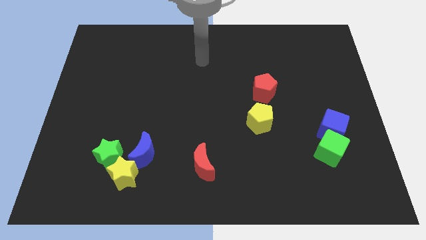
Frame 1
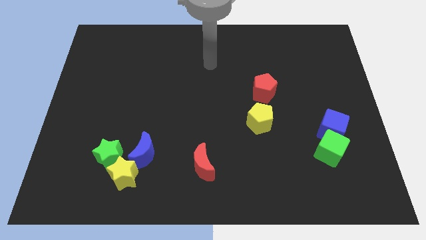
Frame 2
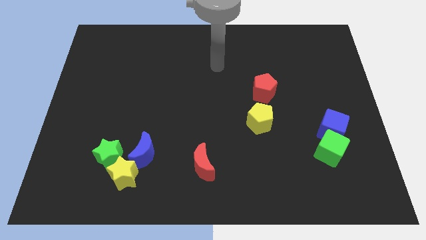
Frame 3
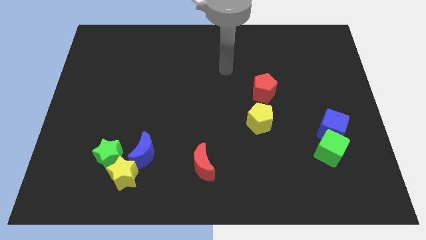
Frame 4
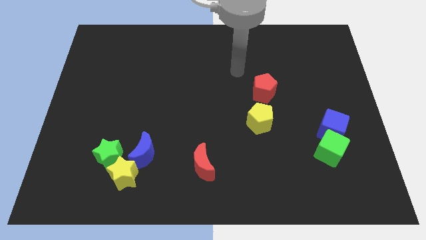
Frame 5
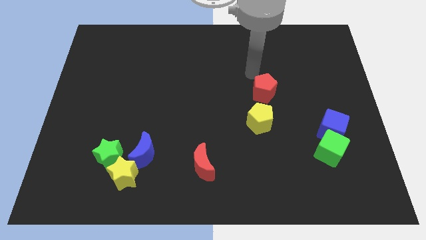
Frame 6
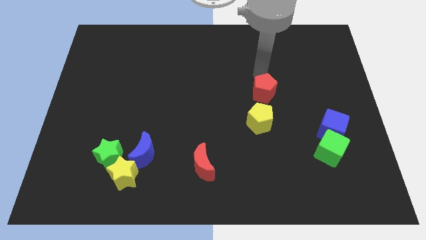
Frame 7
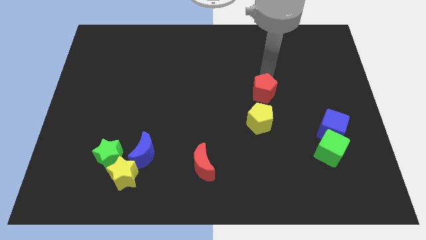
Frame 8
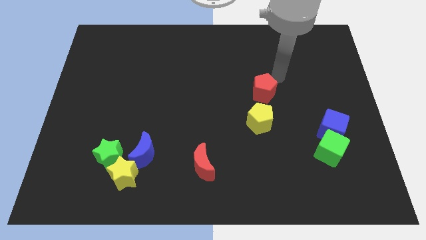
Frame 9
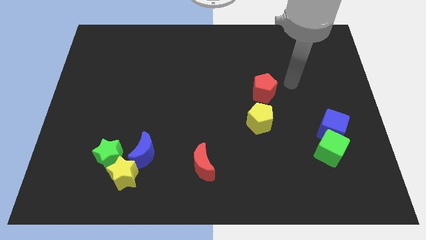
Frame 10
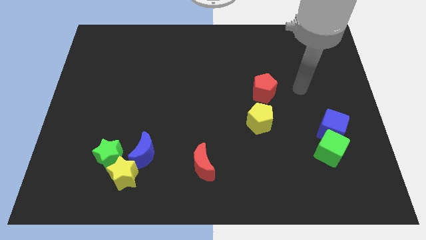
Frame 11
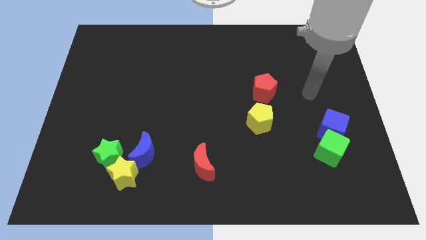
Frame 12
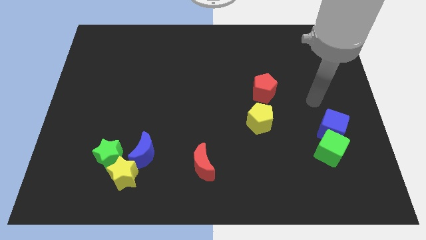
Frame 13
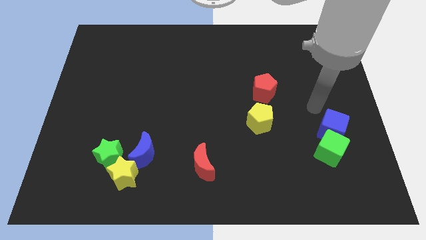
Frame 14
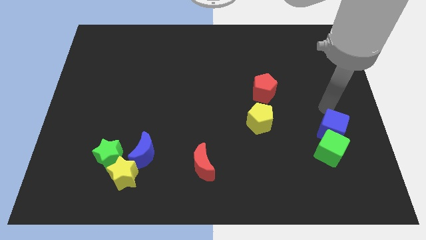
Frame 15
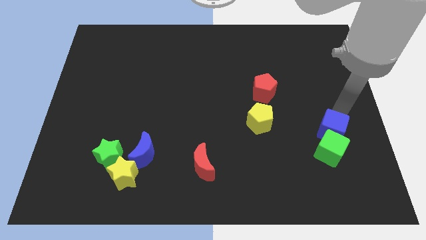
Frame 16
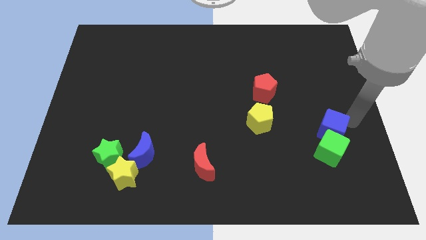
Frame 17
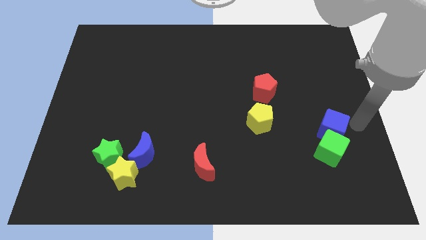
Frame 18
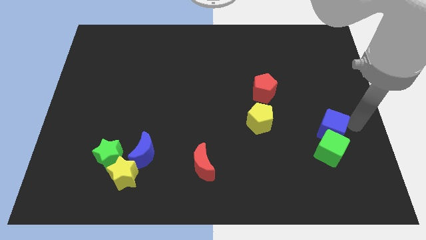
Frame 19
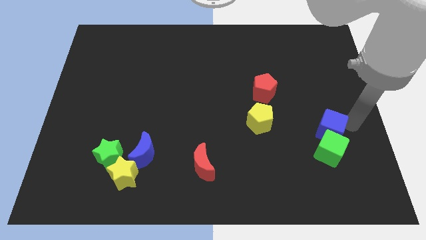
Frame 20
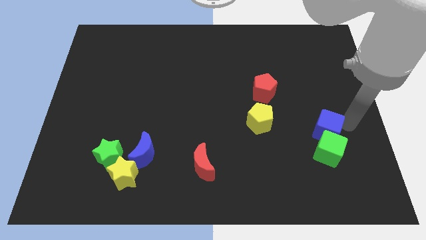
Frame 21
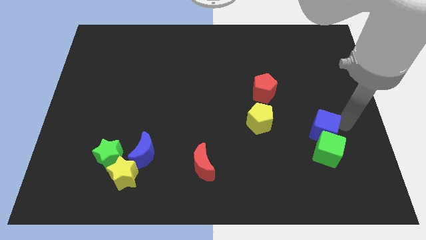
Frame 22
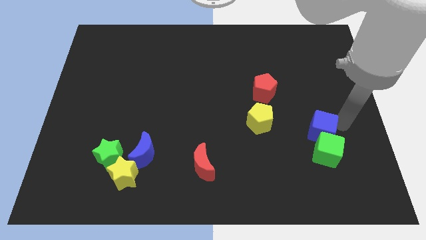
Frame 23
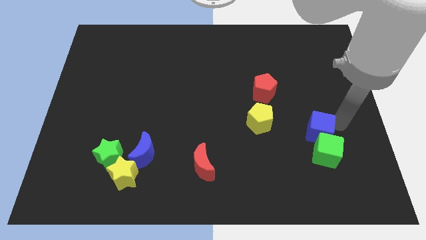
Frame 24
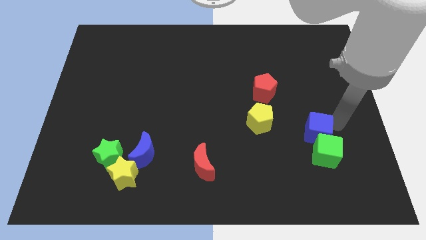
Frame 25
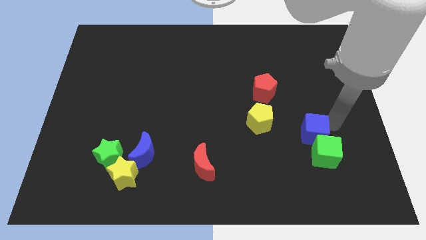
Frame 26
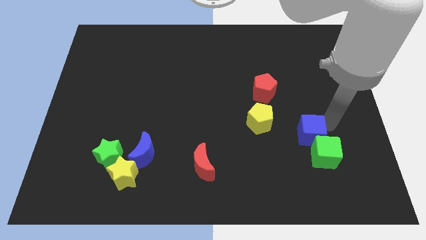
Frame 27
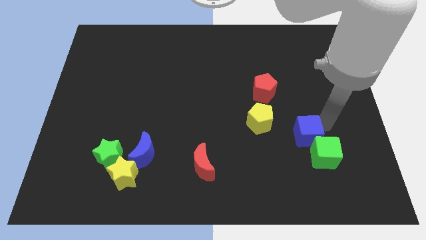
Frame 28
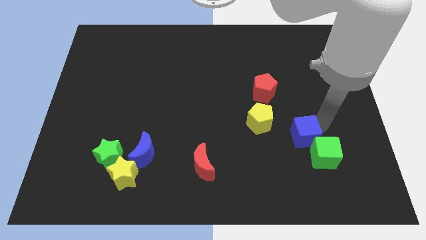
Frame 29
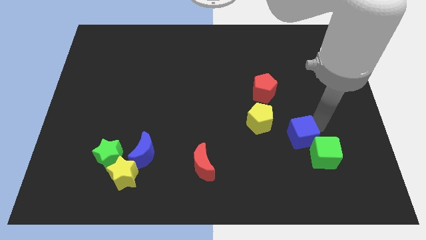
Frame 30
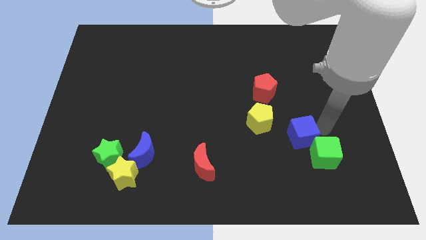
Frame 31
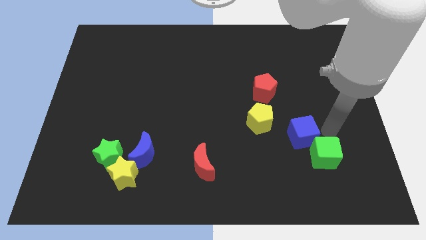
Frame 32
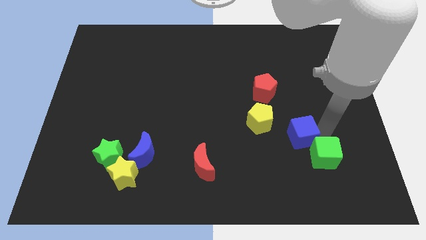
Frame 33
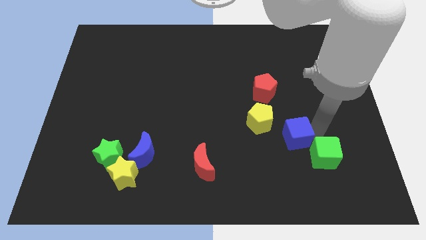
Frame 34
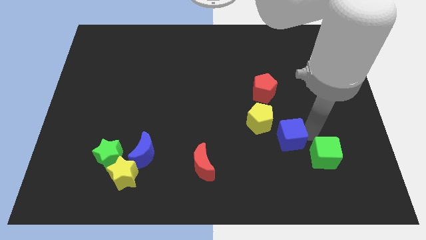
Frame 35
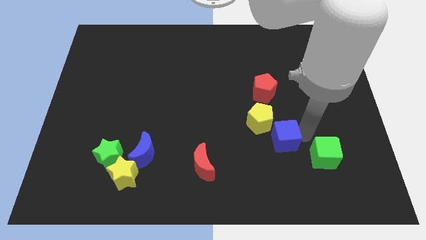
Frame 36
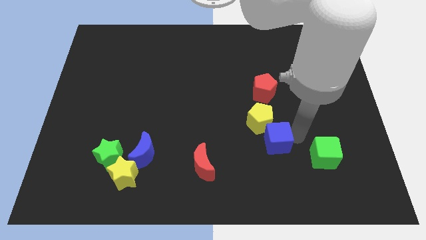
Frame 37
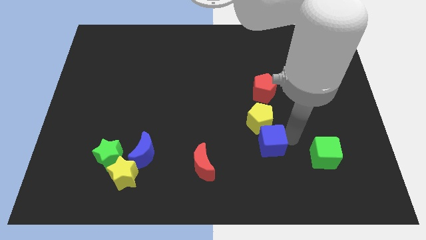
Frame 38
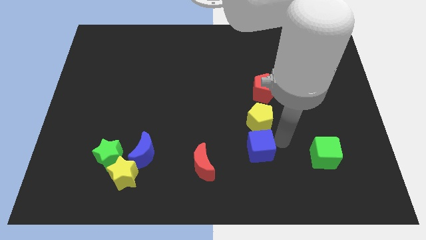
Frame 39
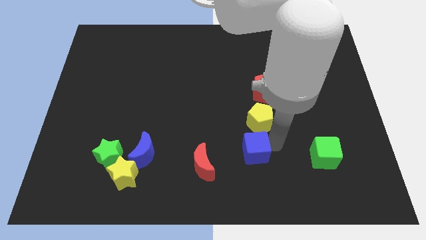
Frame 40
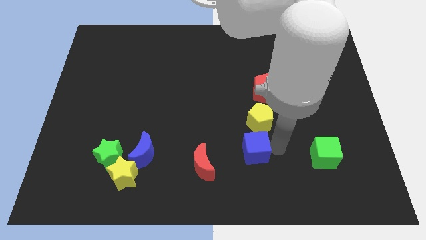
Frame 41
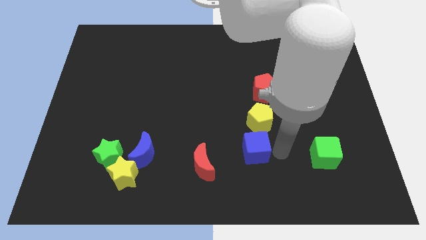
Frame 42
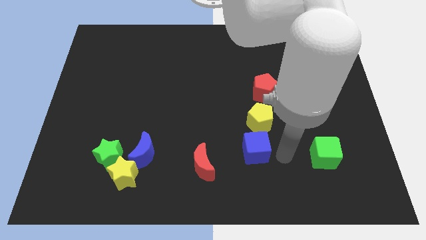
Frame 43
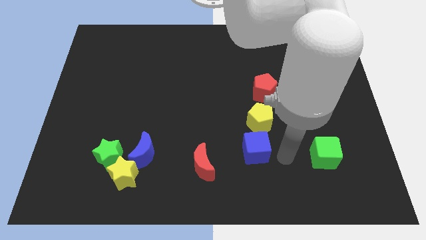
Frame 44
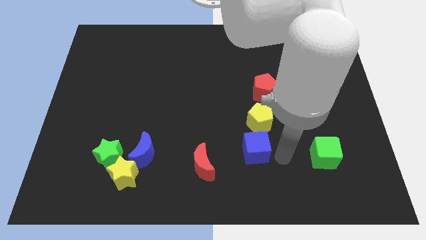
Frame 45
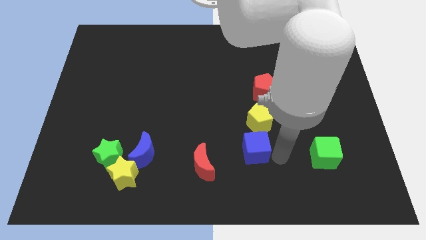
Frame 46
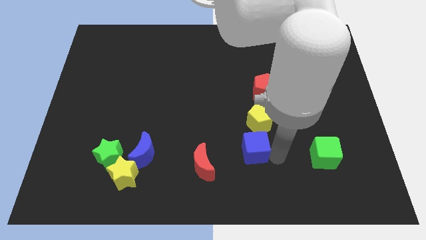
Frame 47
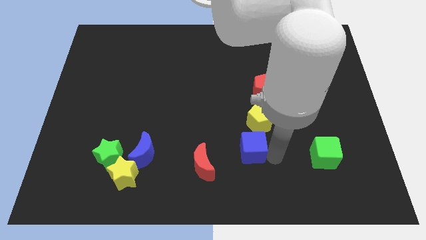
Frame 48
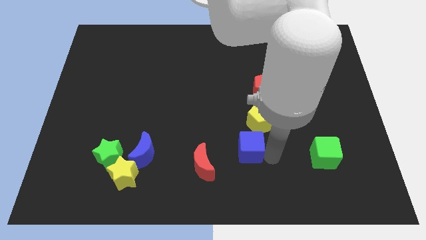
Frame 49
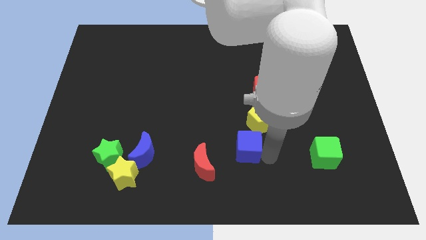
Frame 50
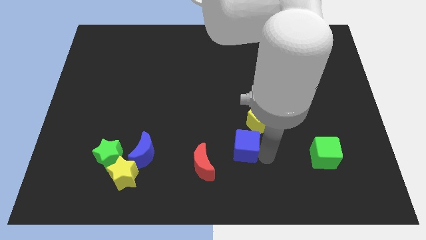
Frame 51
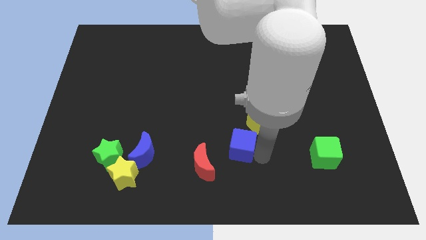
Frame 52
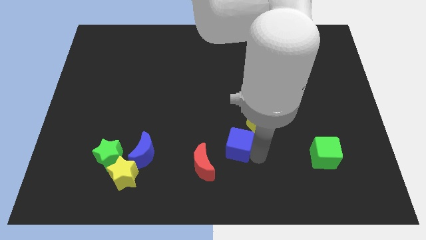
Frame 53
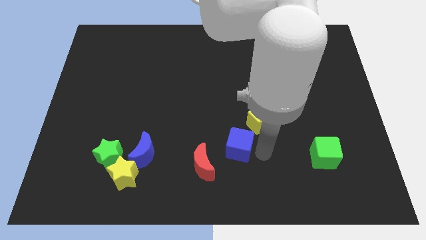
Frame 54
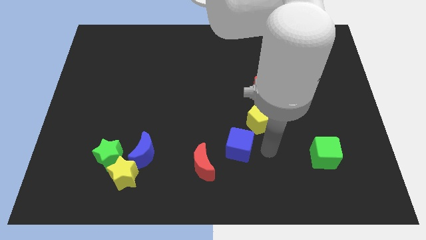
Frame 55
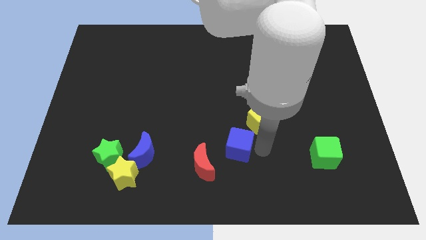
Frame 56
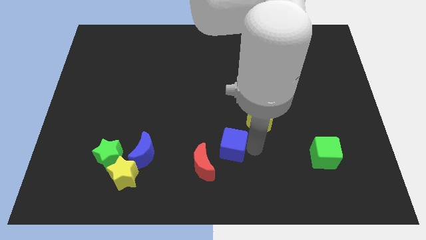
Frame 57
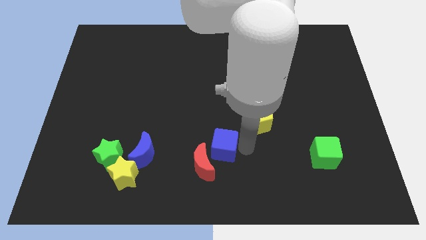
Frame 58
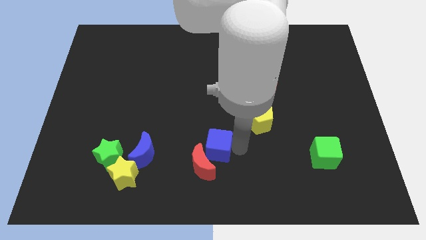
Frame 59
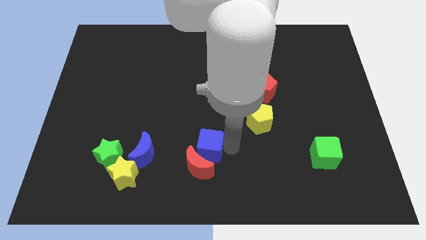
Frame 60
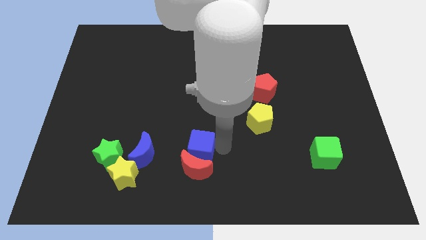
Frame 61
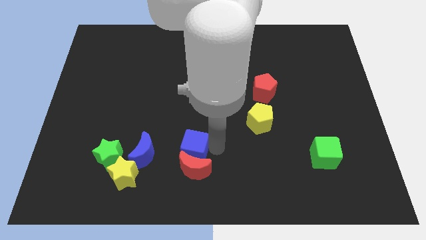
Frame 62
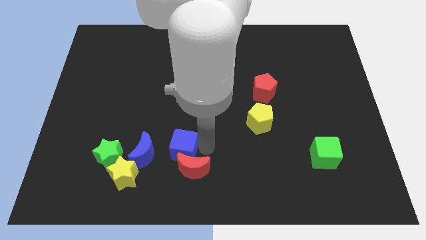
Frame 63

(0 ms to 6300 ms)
put the blue cube to the right of the green star

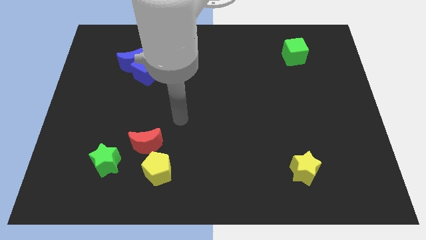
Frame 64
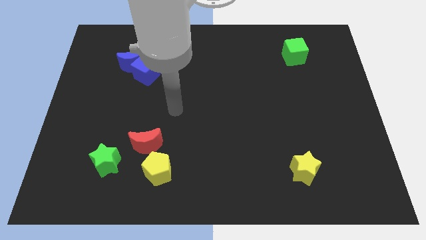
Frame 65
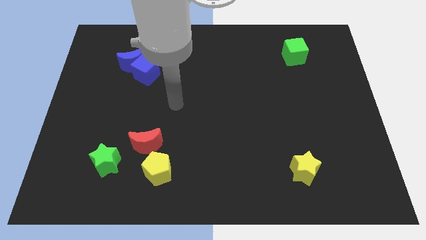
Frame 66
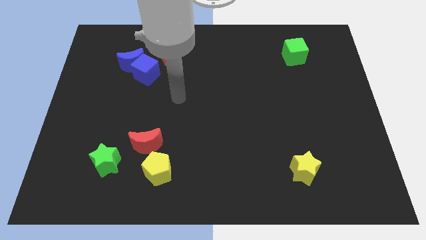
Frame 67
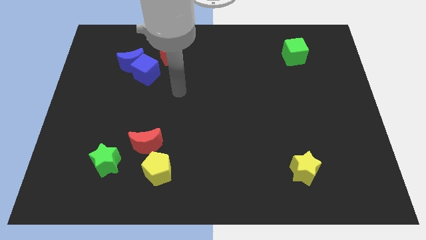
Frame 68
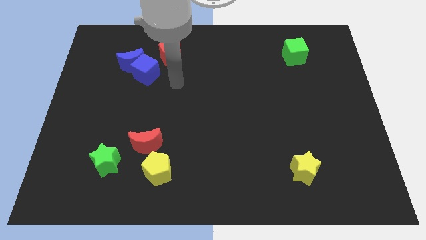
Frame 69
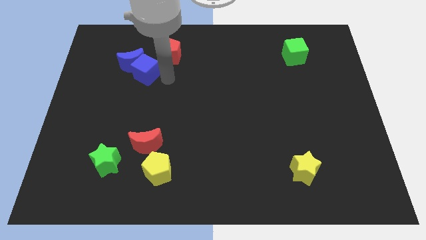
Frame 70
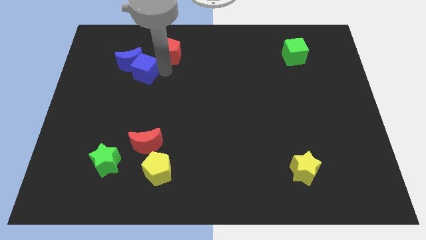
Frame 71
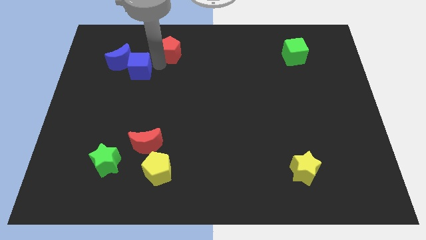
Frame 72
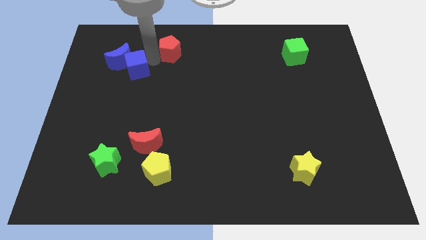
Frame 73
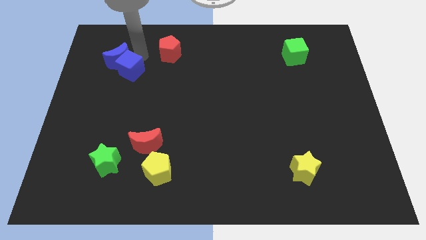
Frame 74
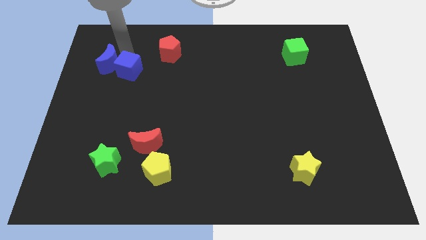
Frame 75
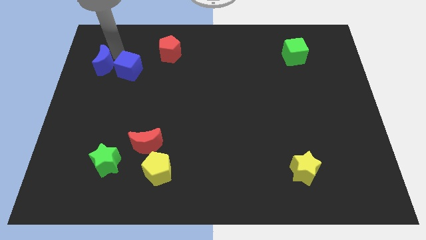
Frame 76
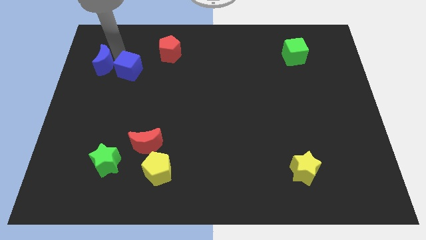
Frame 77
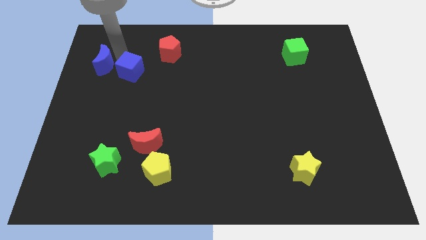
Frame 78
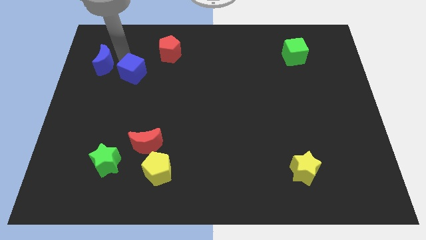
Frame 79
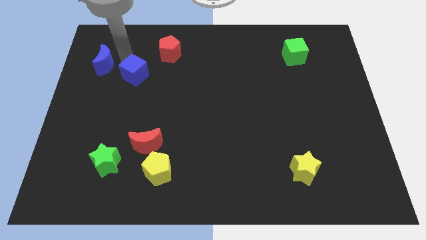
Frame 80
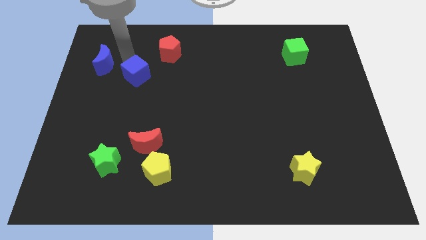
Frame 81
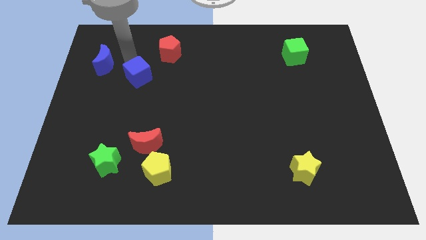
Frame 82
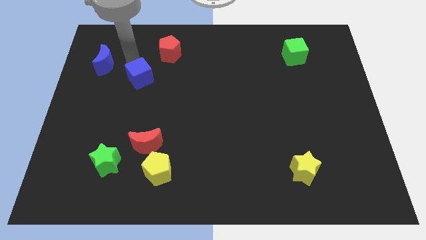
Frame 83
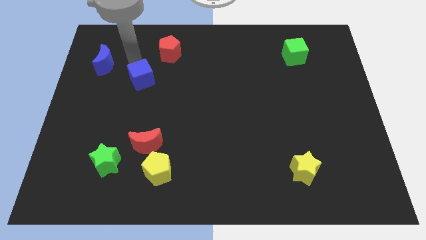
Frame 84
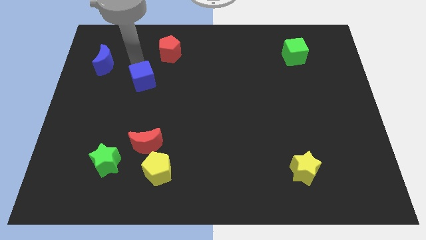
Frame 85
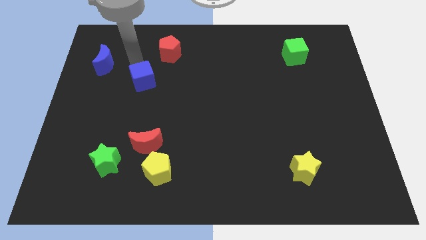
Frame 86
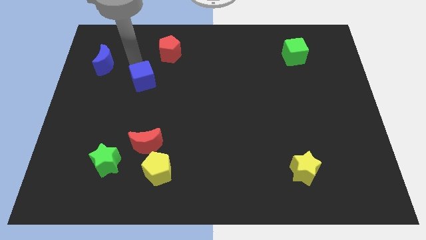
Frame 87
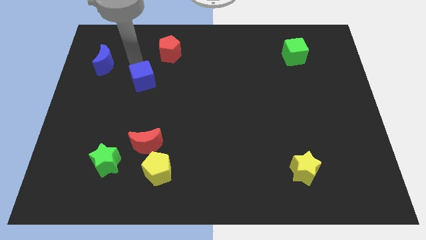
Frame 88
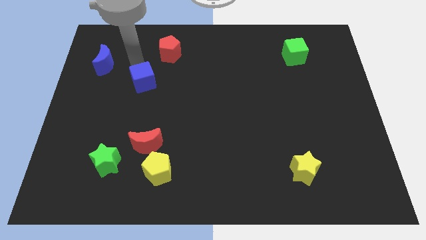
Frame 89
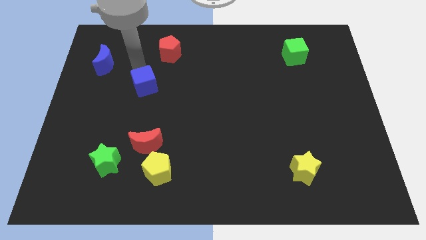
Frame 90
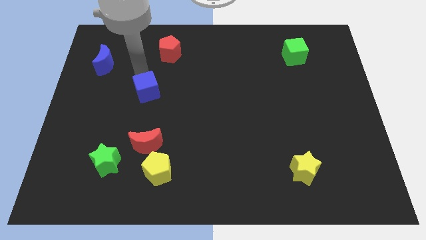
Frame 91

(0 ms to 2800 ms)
slide the blue cube to the top of the red moon
